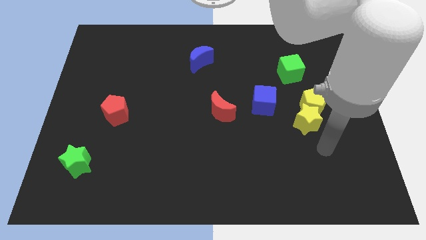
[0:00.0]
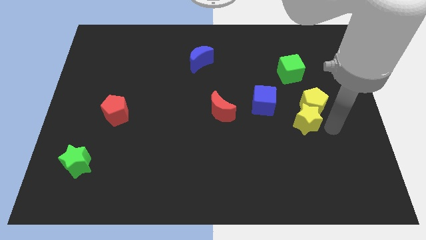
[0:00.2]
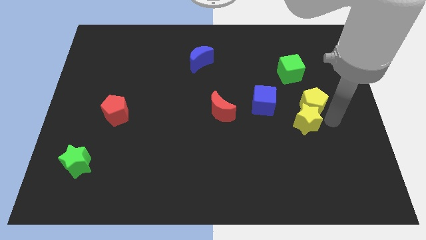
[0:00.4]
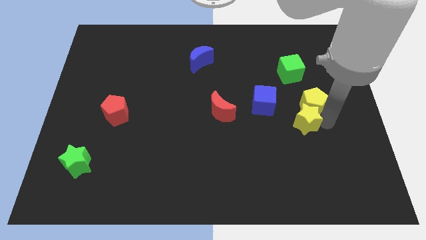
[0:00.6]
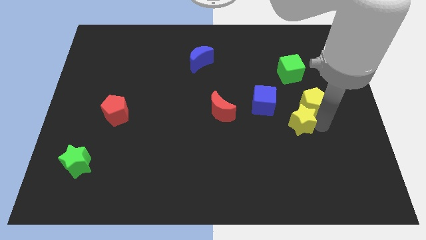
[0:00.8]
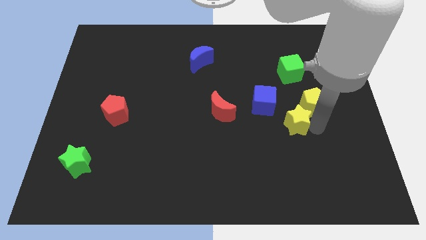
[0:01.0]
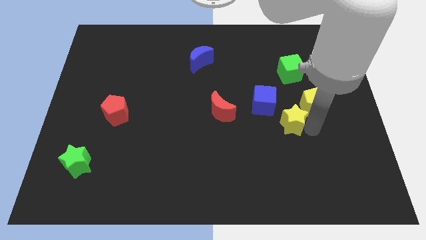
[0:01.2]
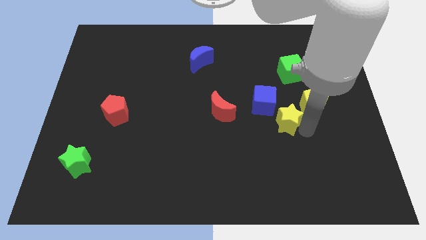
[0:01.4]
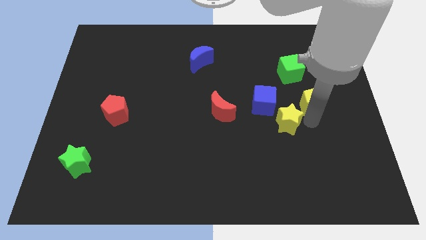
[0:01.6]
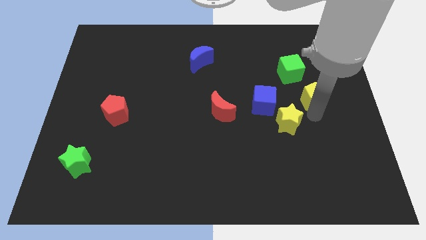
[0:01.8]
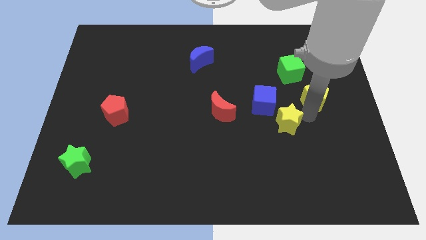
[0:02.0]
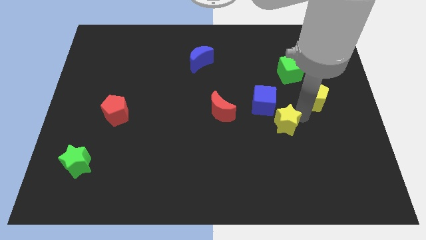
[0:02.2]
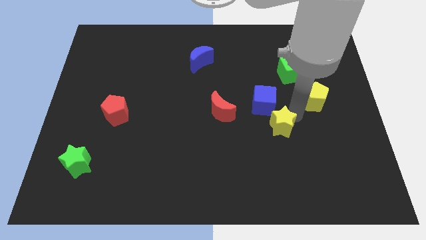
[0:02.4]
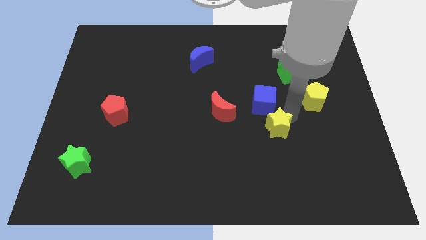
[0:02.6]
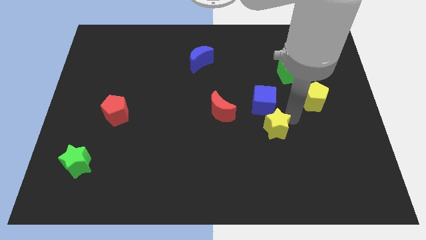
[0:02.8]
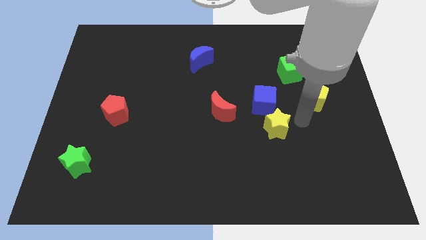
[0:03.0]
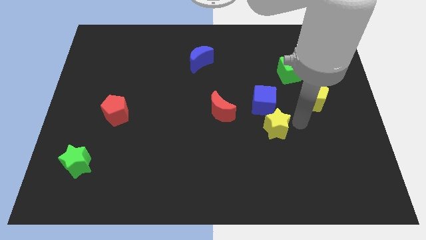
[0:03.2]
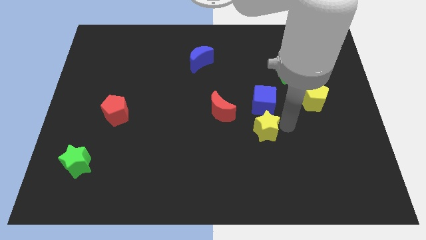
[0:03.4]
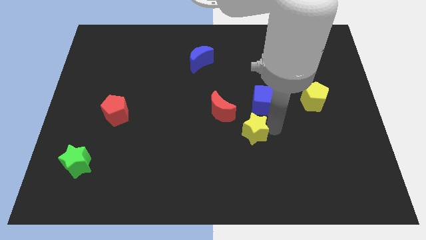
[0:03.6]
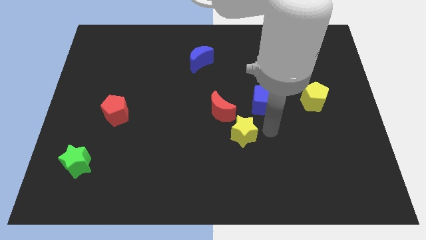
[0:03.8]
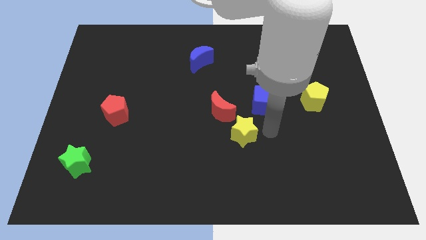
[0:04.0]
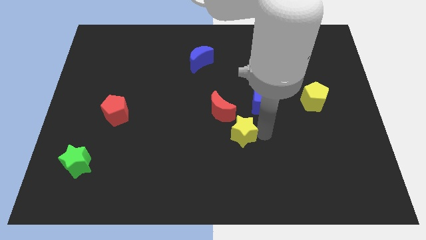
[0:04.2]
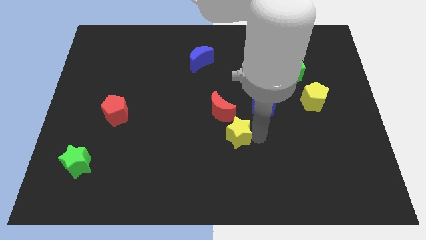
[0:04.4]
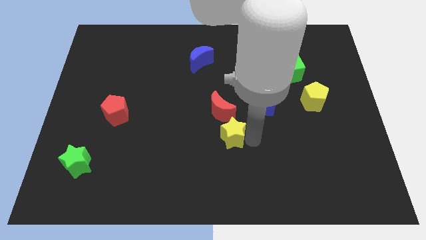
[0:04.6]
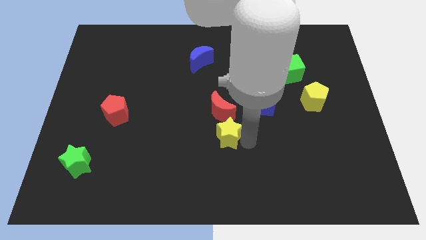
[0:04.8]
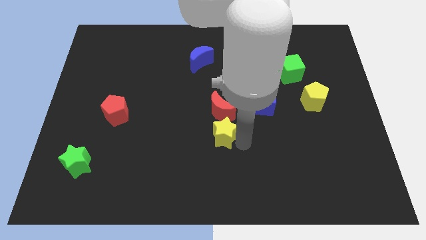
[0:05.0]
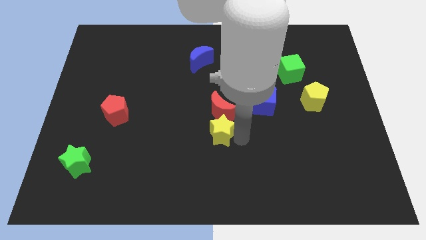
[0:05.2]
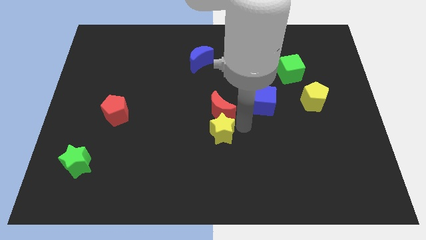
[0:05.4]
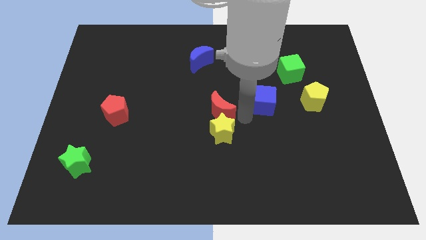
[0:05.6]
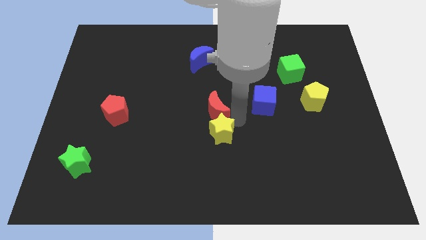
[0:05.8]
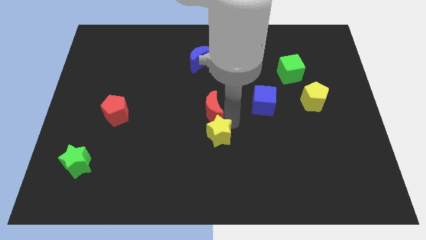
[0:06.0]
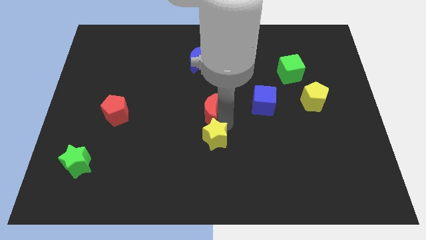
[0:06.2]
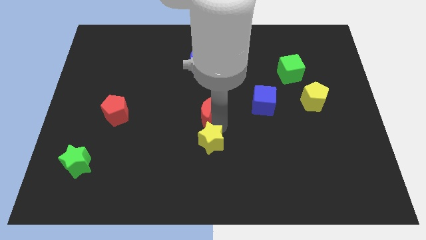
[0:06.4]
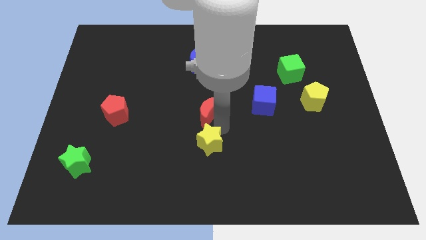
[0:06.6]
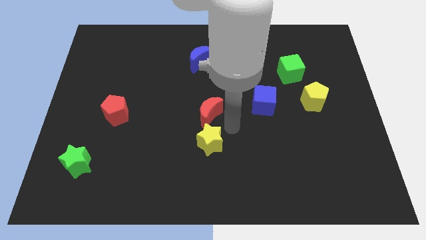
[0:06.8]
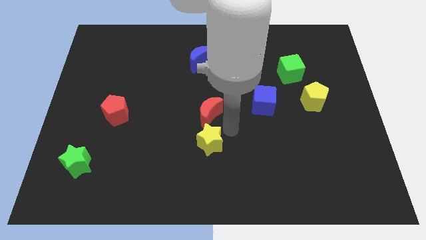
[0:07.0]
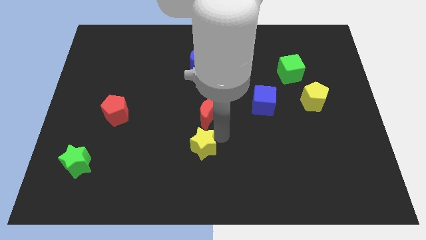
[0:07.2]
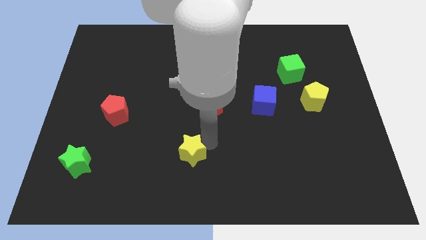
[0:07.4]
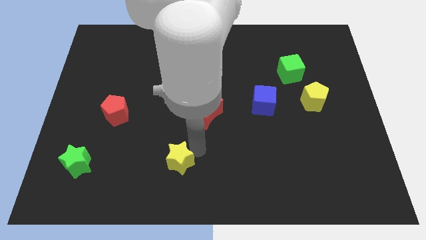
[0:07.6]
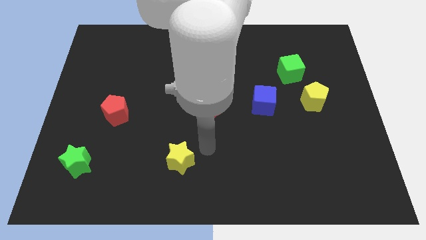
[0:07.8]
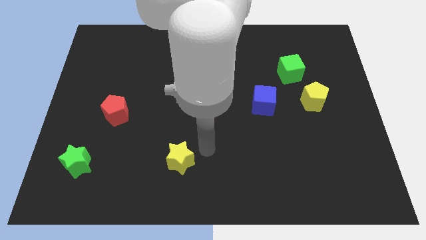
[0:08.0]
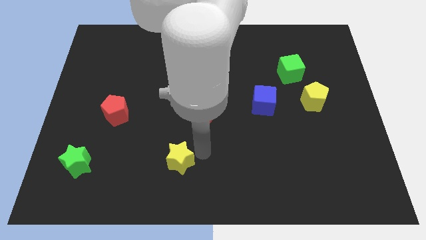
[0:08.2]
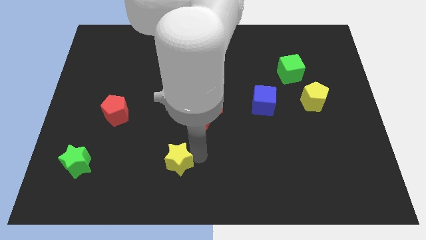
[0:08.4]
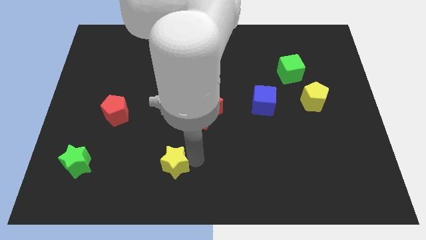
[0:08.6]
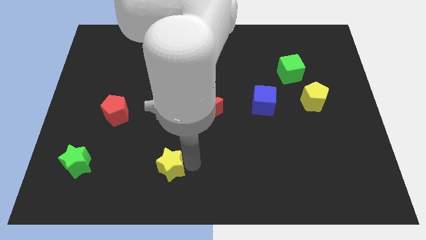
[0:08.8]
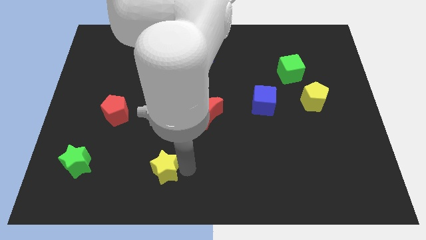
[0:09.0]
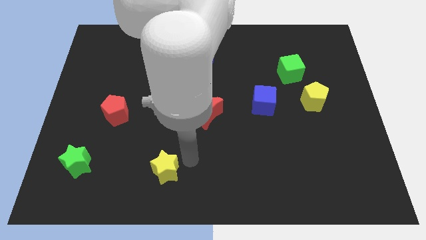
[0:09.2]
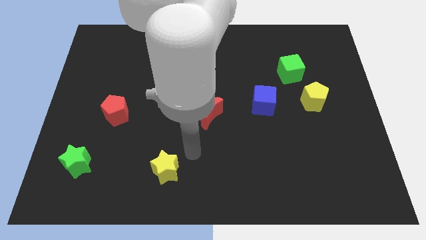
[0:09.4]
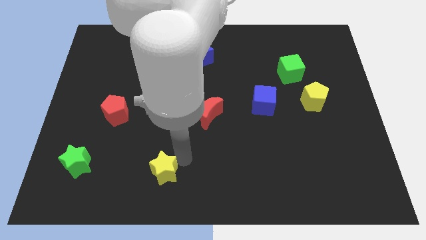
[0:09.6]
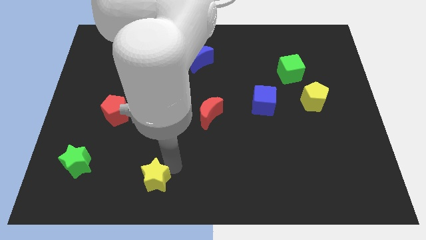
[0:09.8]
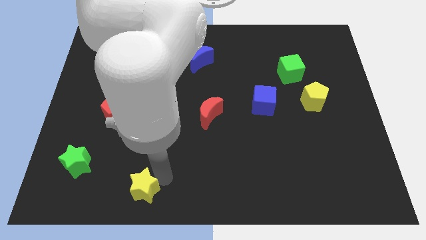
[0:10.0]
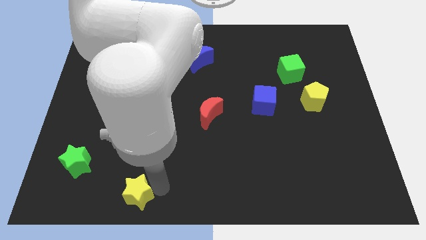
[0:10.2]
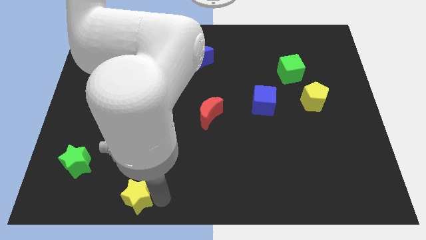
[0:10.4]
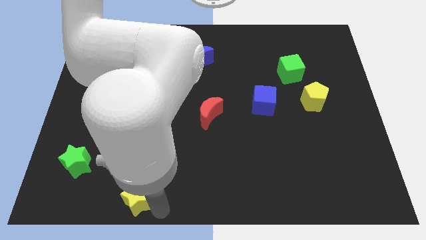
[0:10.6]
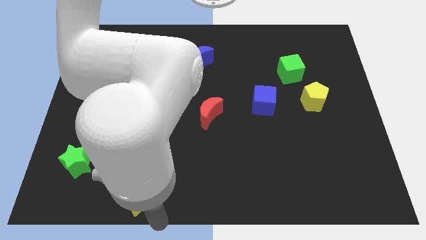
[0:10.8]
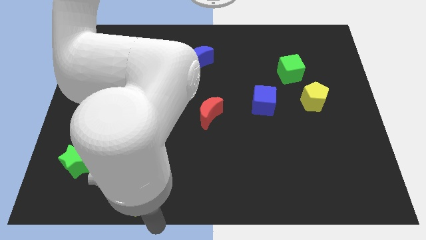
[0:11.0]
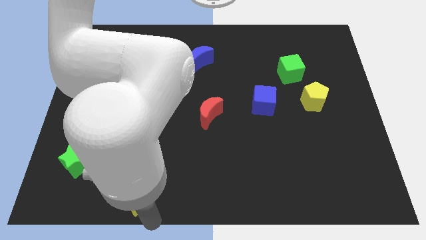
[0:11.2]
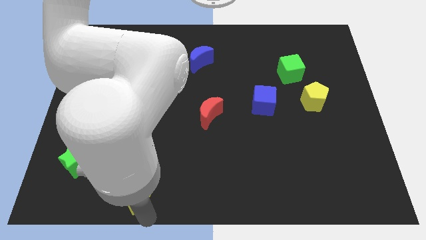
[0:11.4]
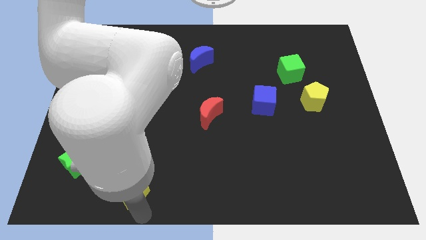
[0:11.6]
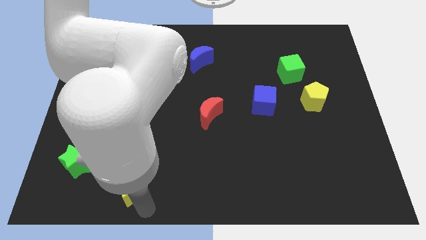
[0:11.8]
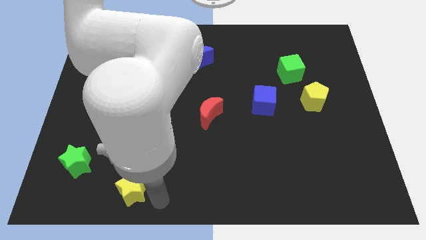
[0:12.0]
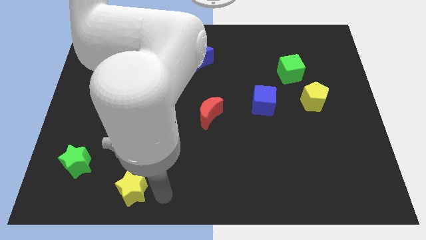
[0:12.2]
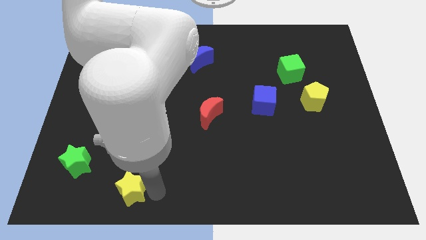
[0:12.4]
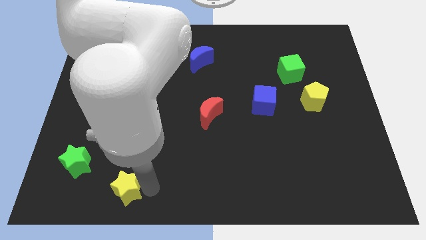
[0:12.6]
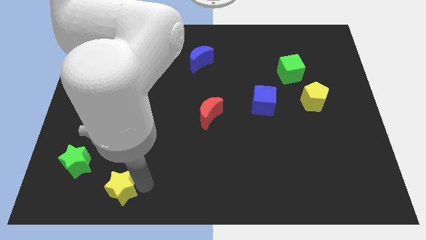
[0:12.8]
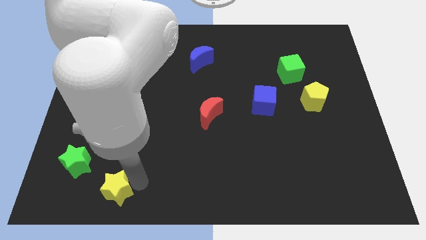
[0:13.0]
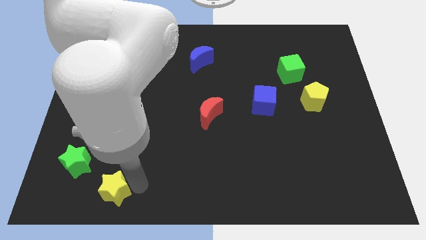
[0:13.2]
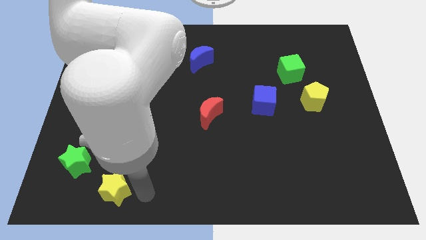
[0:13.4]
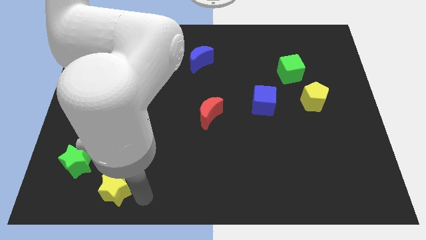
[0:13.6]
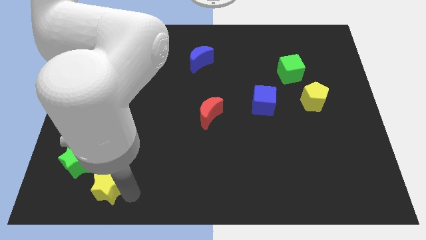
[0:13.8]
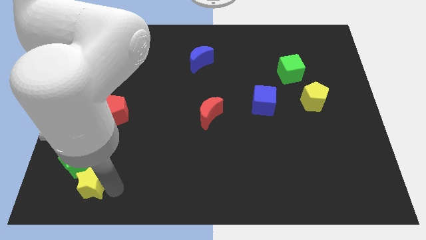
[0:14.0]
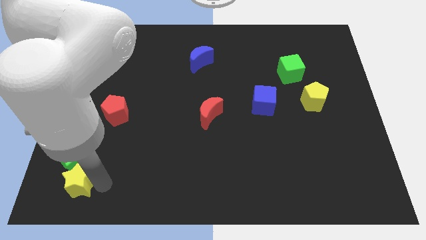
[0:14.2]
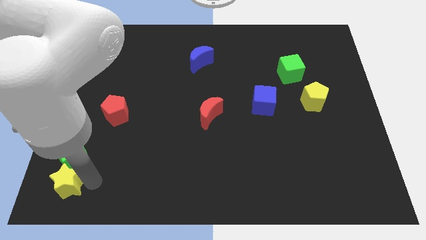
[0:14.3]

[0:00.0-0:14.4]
slide the yellow star to the bottom left of the board
